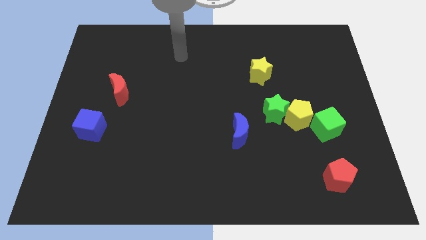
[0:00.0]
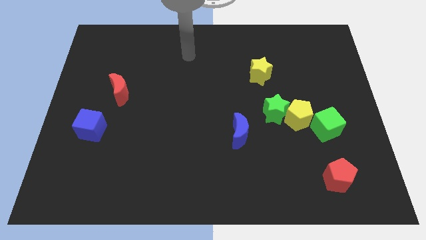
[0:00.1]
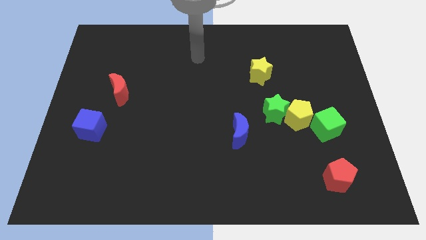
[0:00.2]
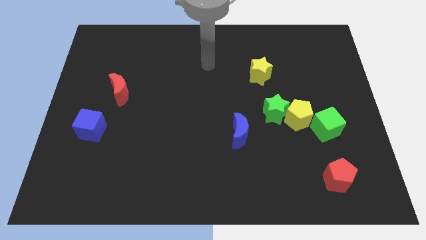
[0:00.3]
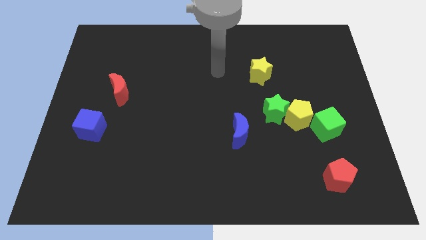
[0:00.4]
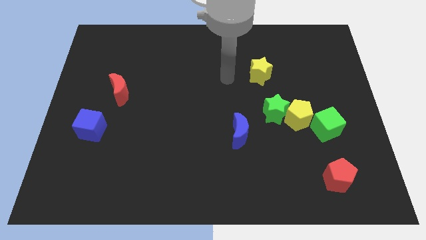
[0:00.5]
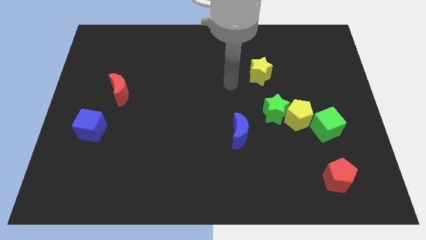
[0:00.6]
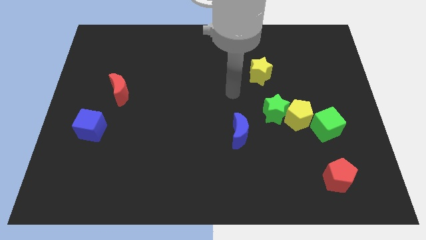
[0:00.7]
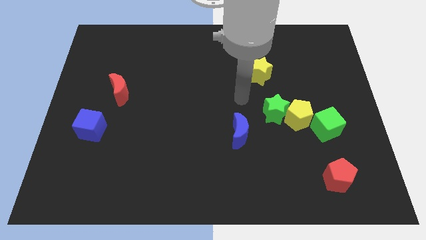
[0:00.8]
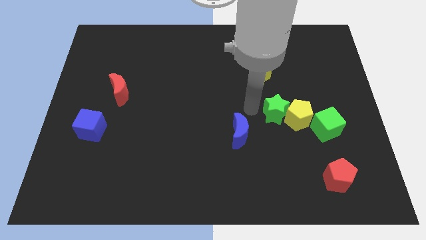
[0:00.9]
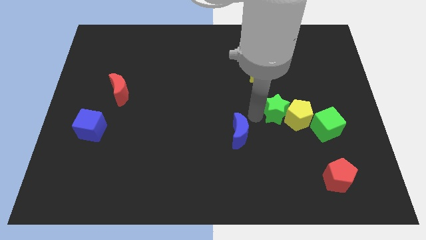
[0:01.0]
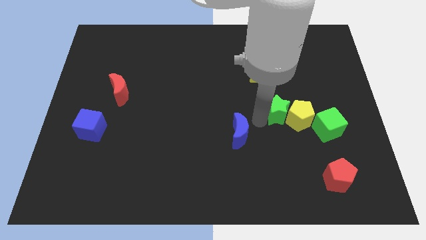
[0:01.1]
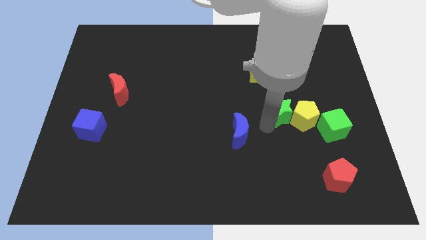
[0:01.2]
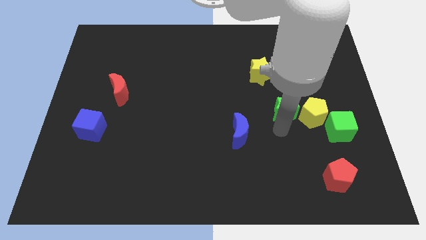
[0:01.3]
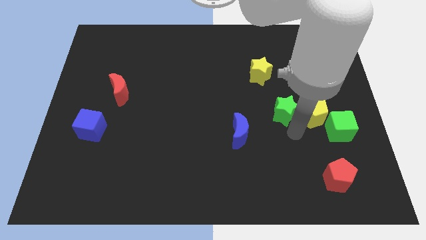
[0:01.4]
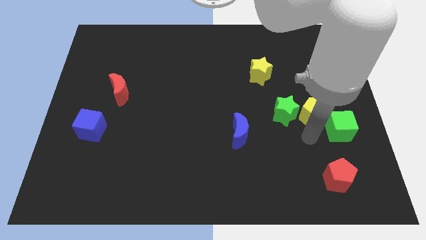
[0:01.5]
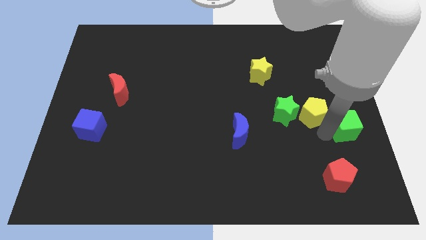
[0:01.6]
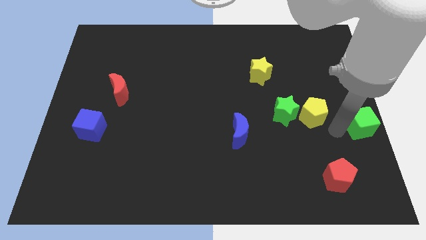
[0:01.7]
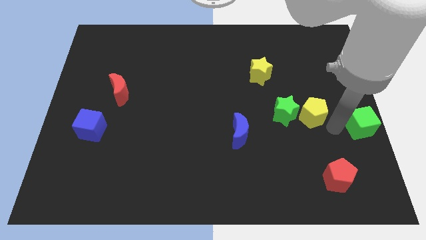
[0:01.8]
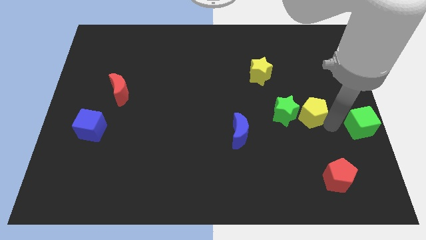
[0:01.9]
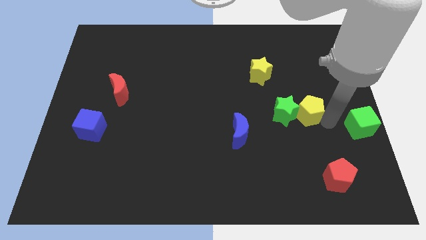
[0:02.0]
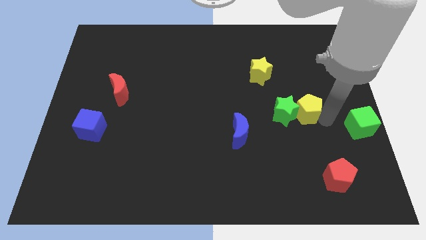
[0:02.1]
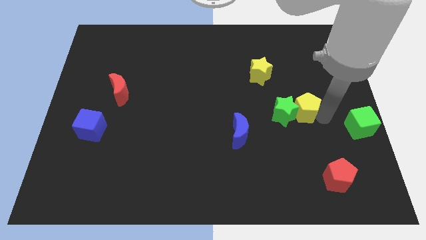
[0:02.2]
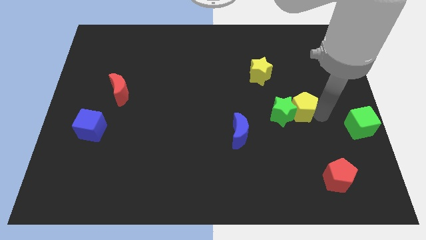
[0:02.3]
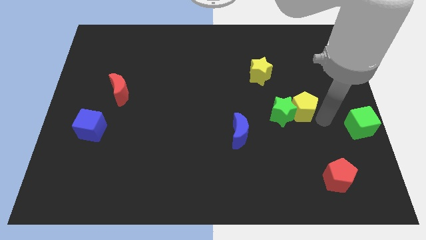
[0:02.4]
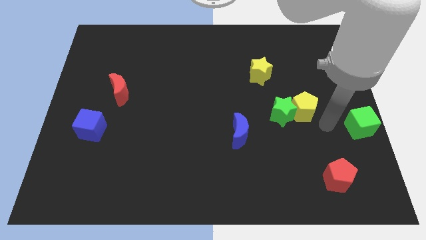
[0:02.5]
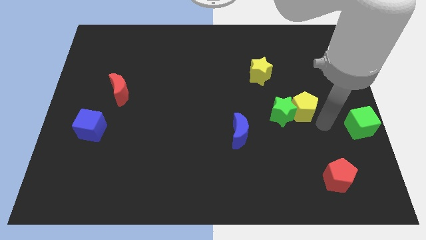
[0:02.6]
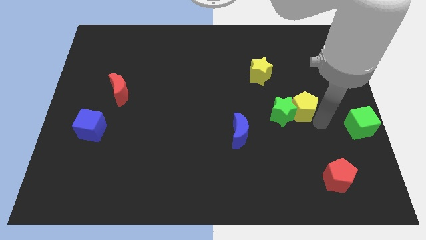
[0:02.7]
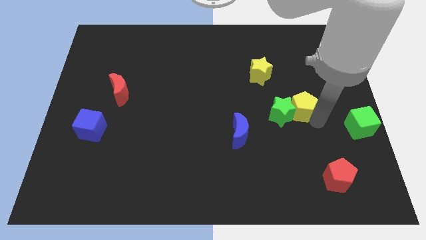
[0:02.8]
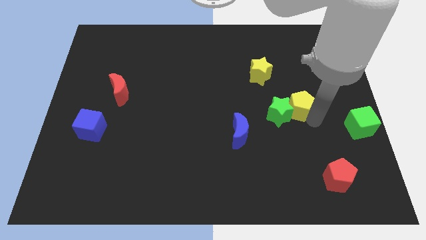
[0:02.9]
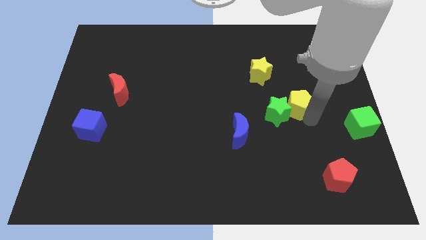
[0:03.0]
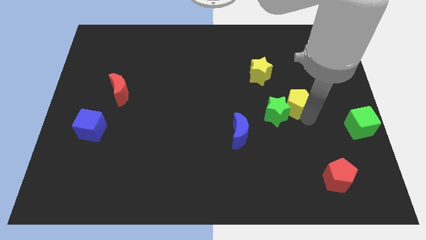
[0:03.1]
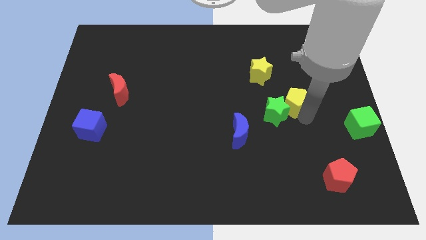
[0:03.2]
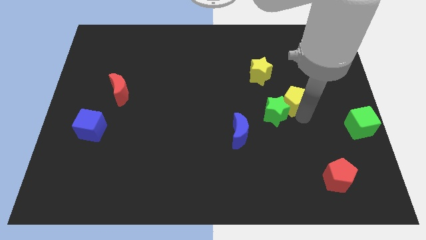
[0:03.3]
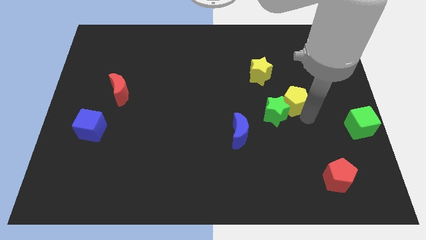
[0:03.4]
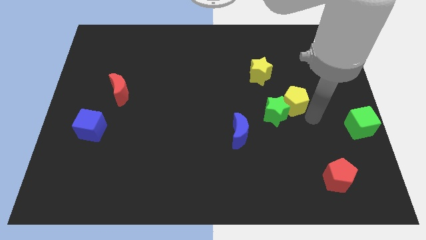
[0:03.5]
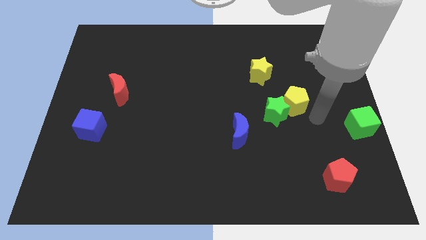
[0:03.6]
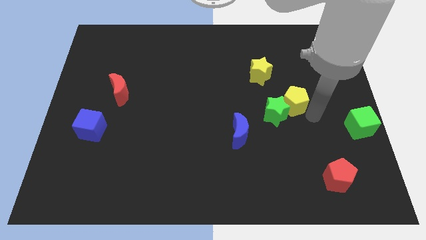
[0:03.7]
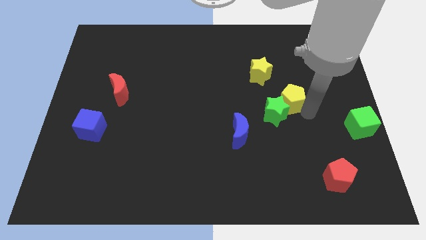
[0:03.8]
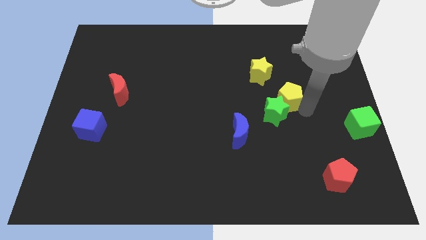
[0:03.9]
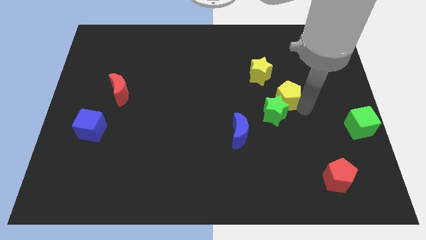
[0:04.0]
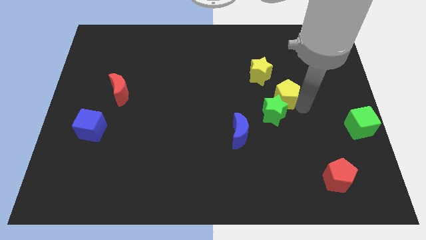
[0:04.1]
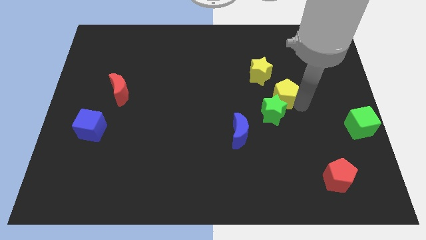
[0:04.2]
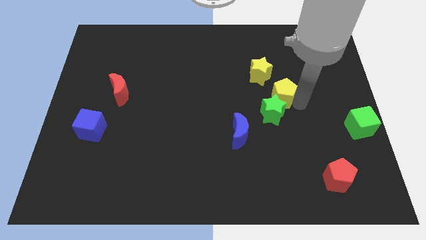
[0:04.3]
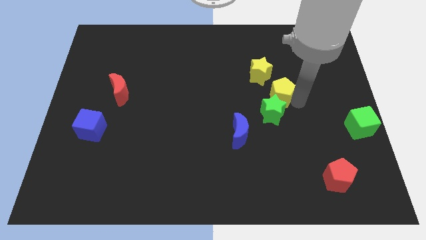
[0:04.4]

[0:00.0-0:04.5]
pull the yellow pentagon apart from the green star and green cube

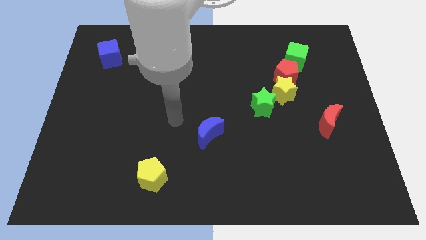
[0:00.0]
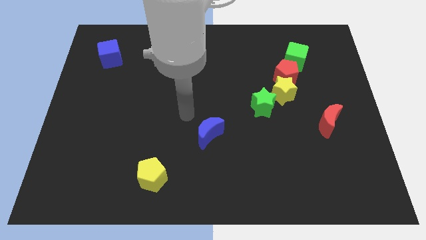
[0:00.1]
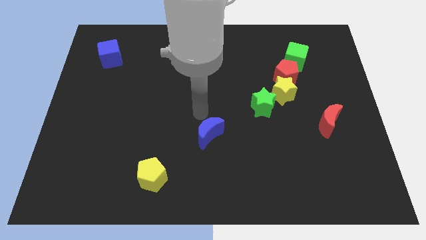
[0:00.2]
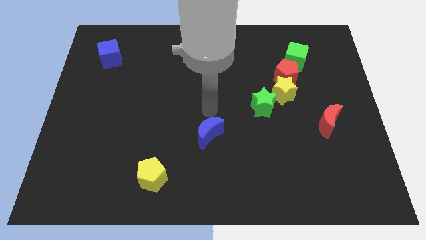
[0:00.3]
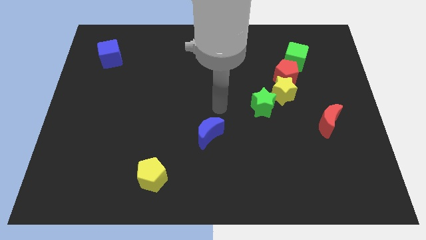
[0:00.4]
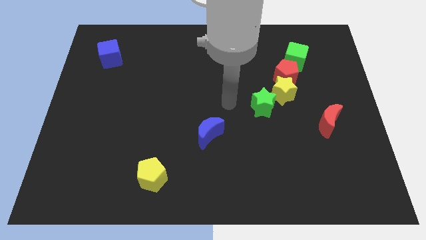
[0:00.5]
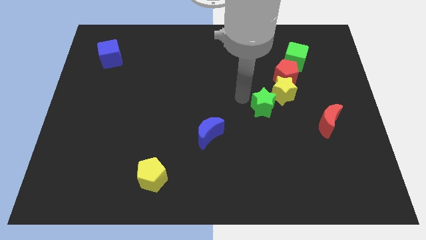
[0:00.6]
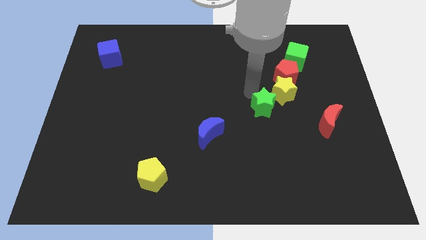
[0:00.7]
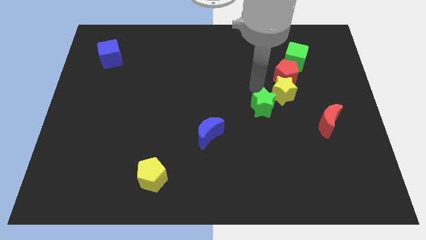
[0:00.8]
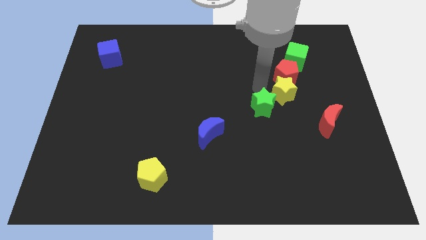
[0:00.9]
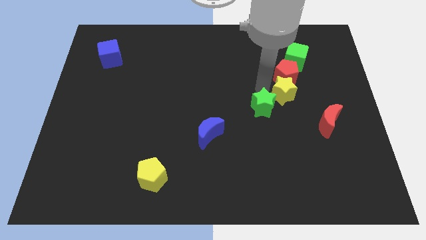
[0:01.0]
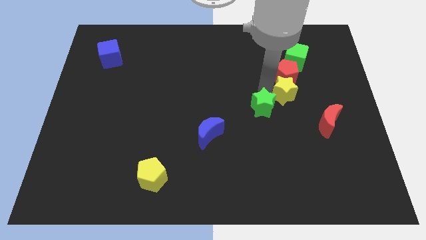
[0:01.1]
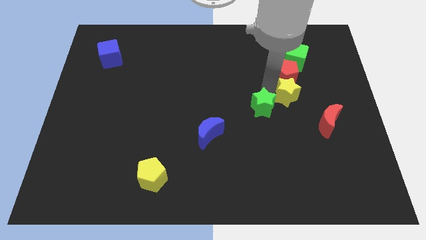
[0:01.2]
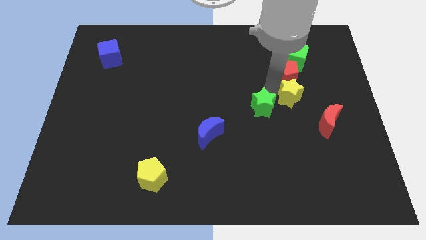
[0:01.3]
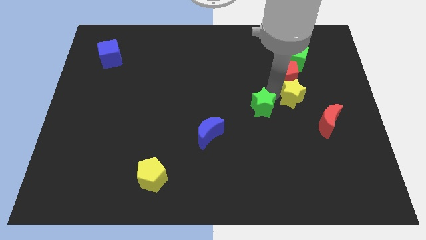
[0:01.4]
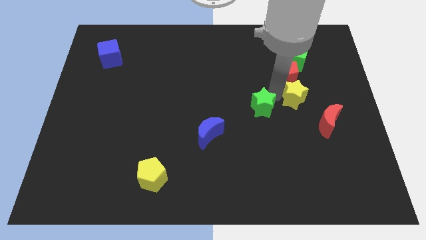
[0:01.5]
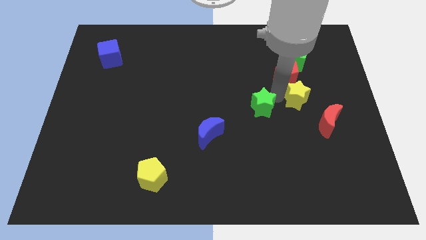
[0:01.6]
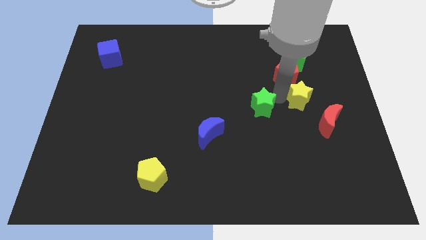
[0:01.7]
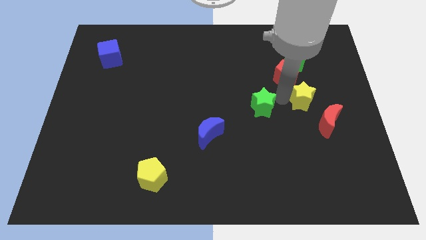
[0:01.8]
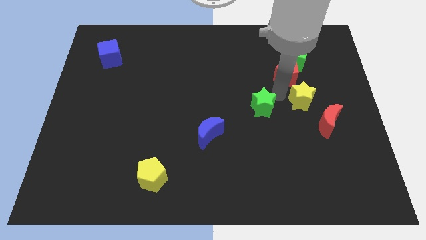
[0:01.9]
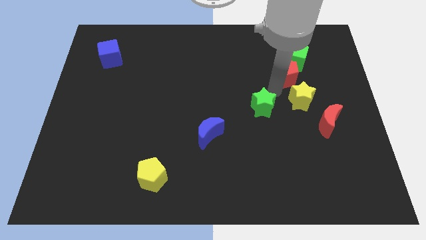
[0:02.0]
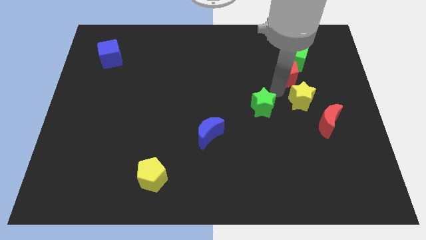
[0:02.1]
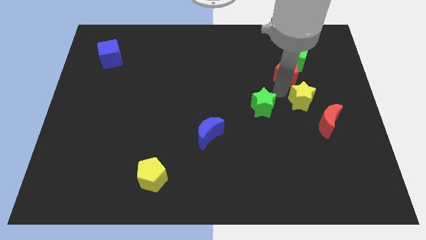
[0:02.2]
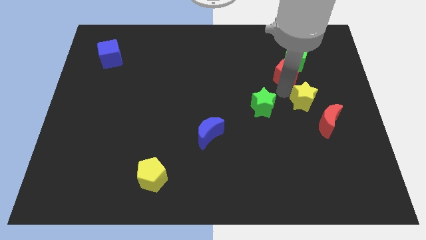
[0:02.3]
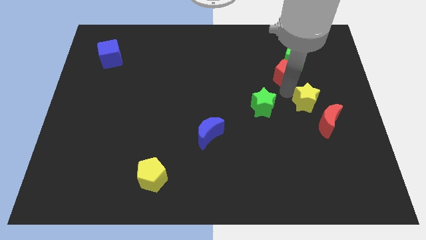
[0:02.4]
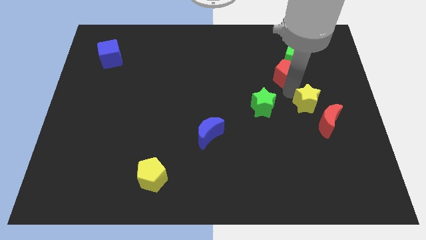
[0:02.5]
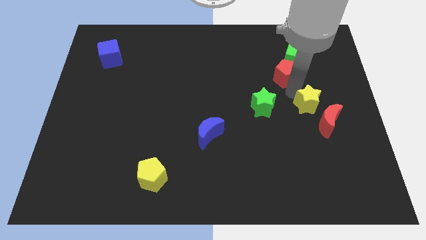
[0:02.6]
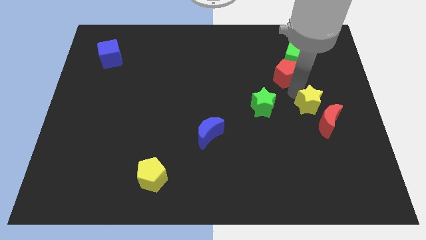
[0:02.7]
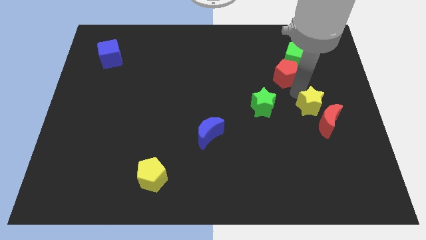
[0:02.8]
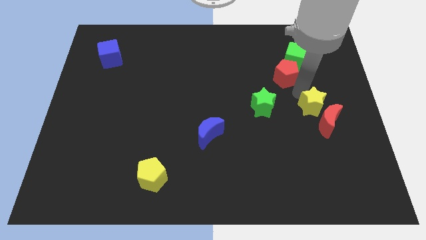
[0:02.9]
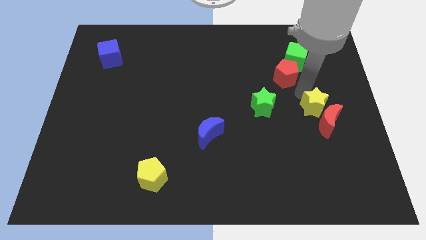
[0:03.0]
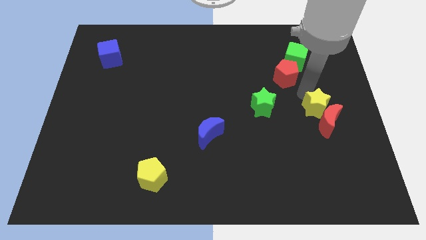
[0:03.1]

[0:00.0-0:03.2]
move the yellow star away from the red pentagon and green star

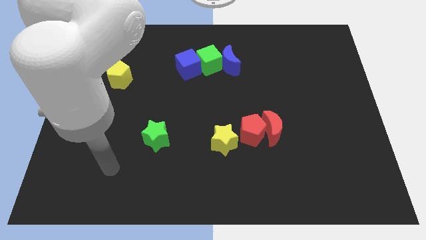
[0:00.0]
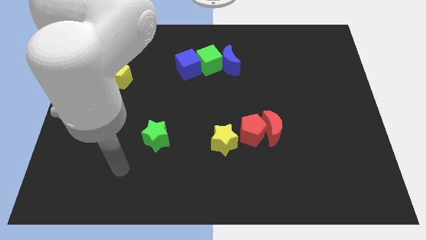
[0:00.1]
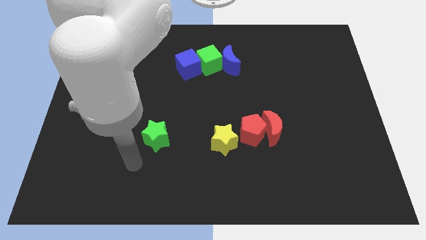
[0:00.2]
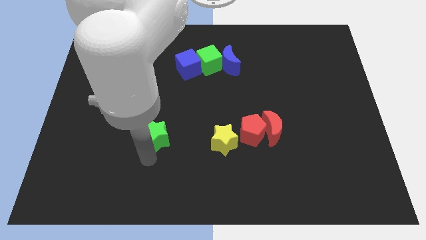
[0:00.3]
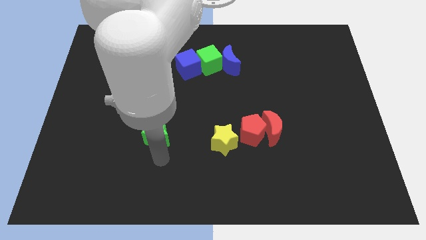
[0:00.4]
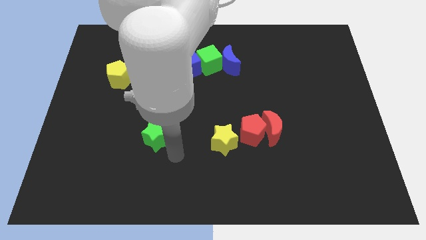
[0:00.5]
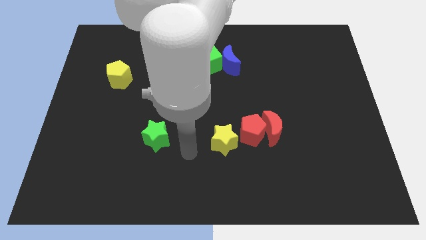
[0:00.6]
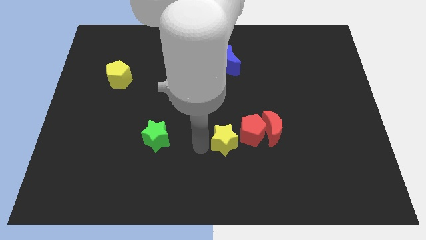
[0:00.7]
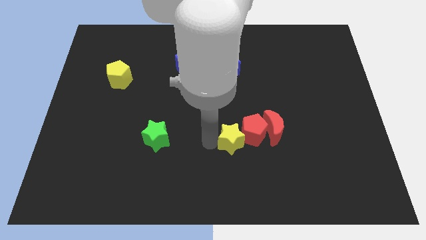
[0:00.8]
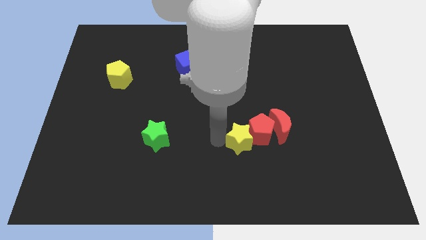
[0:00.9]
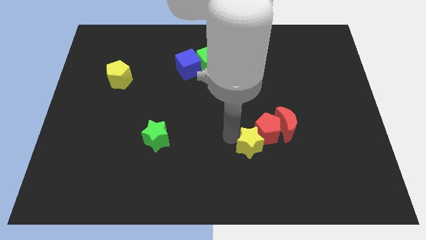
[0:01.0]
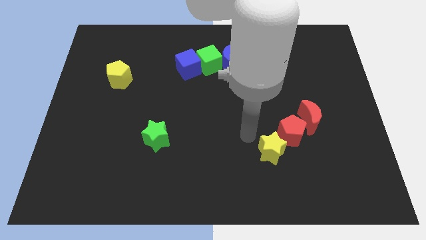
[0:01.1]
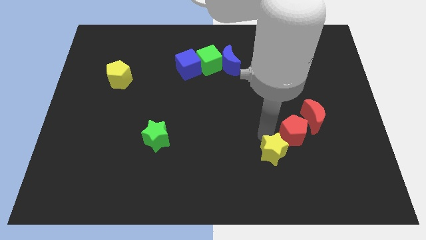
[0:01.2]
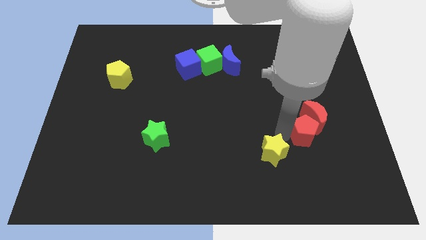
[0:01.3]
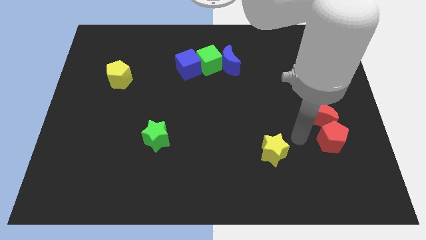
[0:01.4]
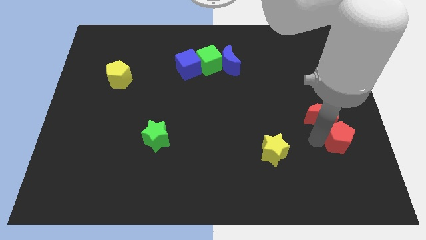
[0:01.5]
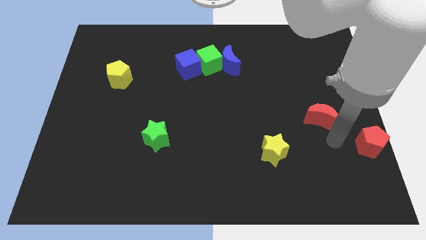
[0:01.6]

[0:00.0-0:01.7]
pull the red moon apart from the red pentagon
